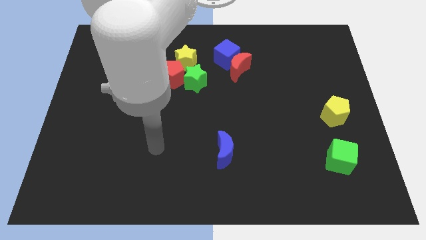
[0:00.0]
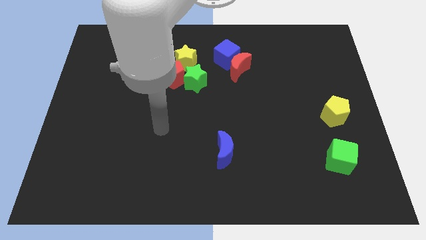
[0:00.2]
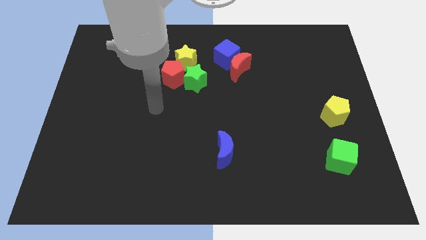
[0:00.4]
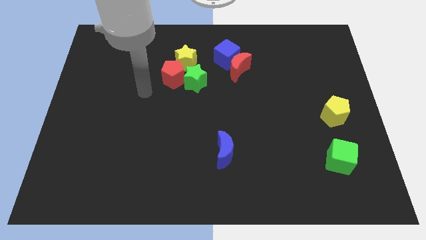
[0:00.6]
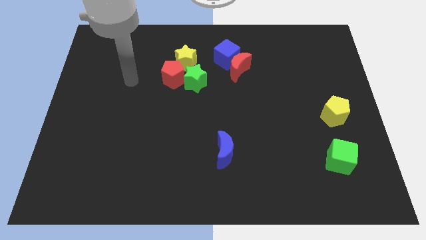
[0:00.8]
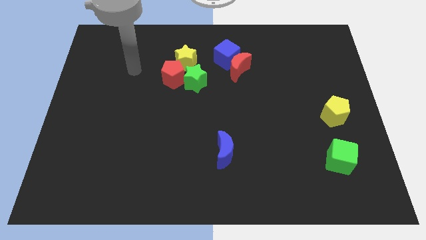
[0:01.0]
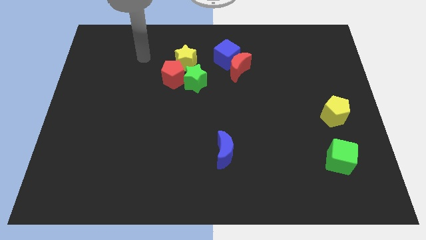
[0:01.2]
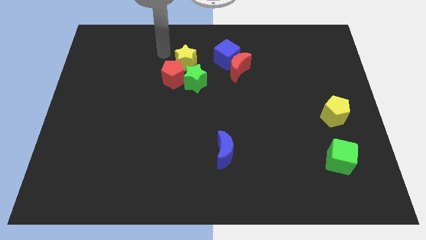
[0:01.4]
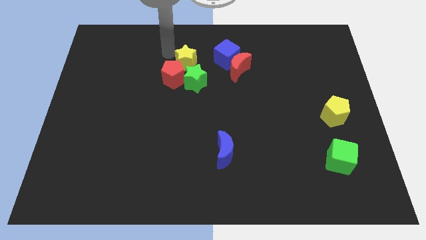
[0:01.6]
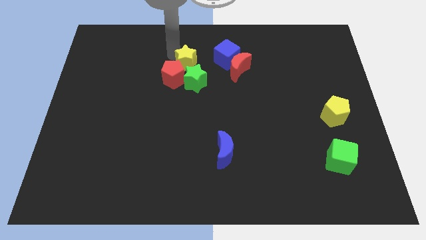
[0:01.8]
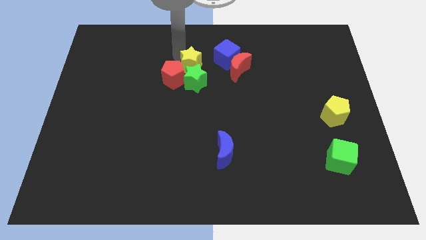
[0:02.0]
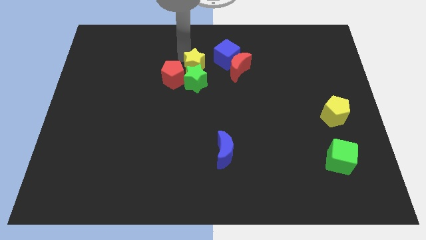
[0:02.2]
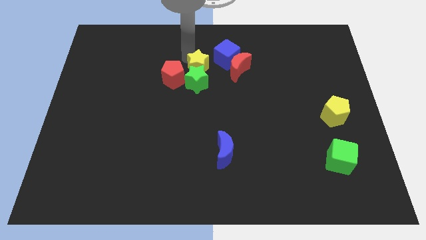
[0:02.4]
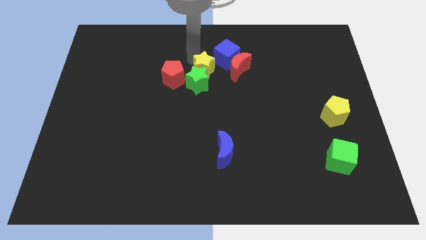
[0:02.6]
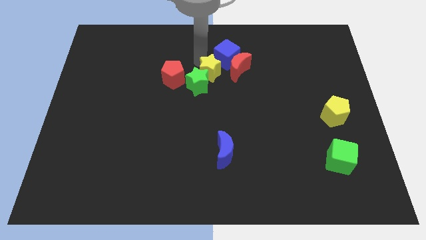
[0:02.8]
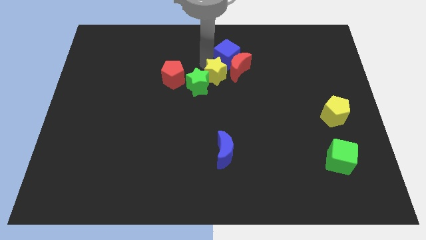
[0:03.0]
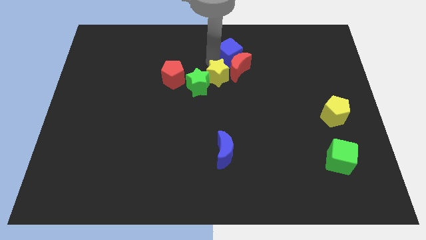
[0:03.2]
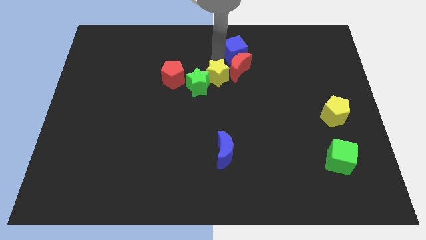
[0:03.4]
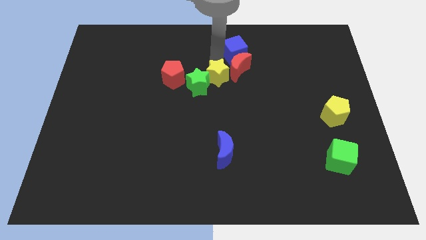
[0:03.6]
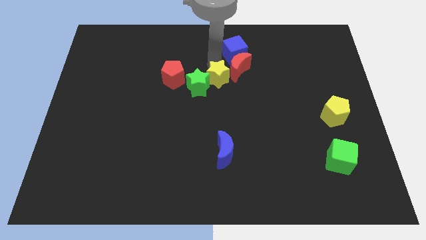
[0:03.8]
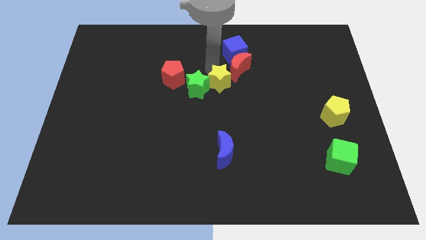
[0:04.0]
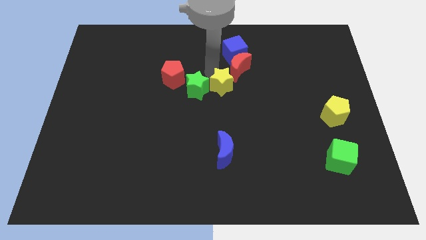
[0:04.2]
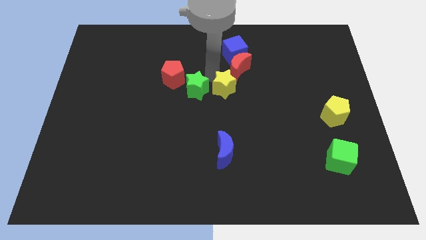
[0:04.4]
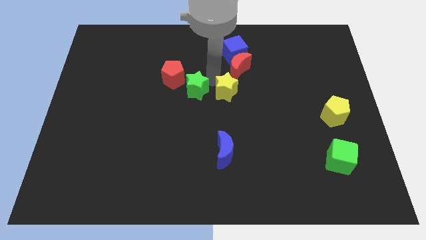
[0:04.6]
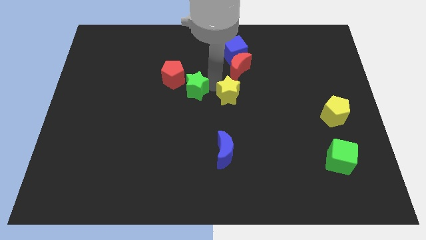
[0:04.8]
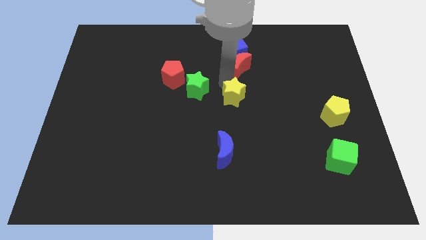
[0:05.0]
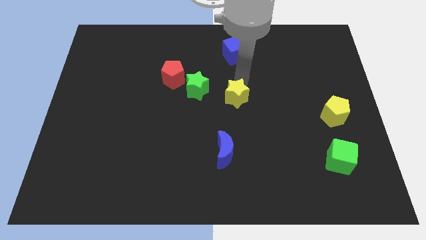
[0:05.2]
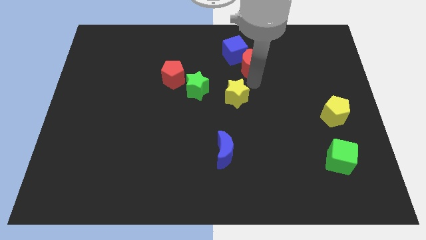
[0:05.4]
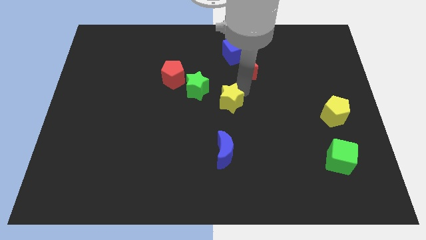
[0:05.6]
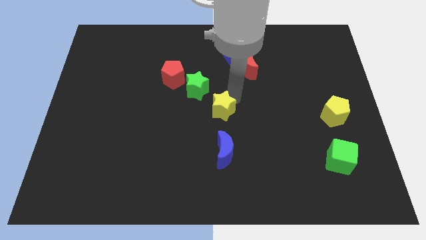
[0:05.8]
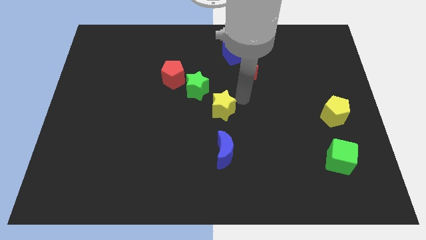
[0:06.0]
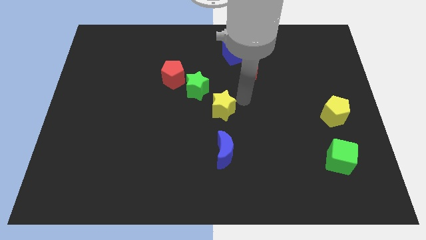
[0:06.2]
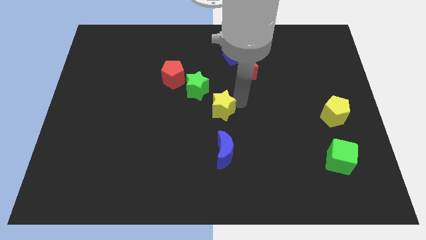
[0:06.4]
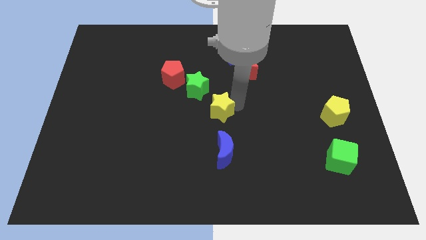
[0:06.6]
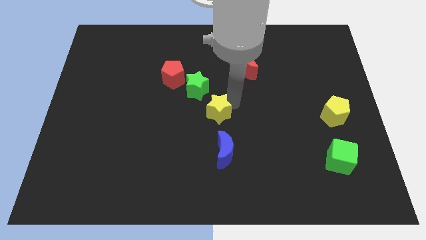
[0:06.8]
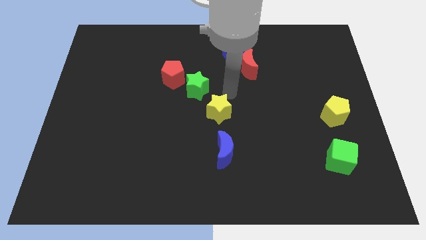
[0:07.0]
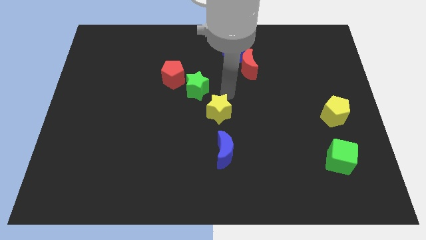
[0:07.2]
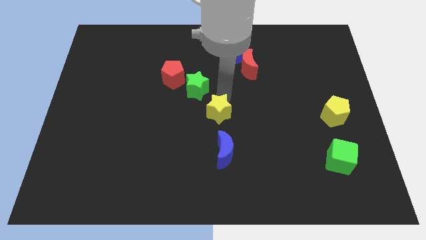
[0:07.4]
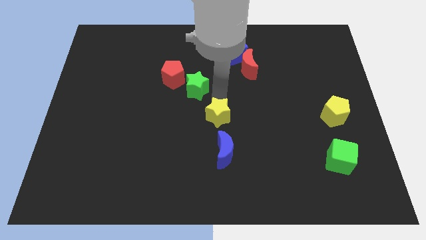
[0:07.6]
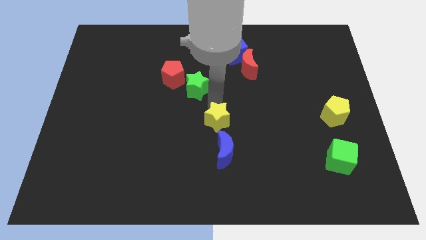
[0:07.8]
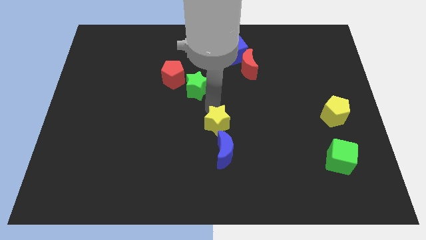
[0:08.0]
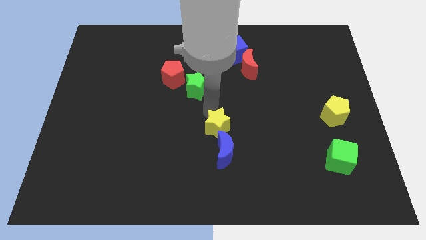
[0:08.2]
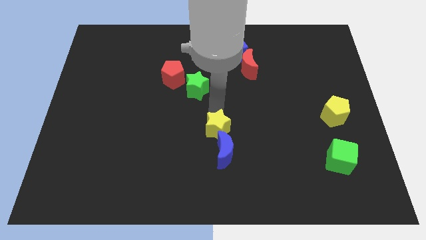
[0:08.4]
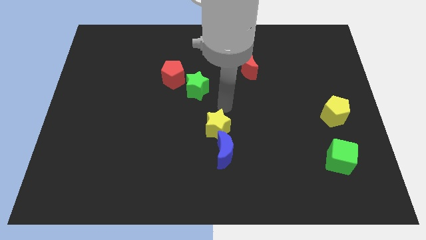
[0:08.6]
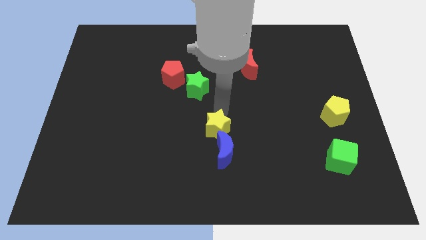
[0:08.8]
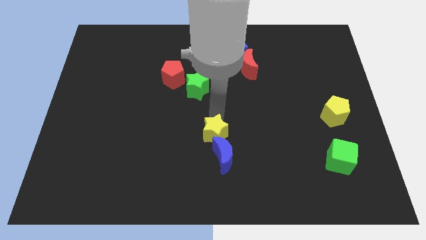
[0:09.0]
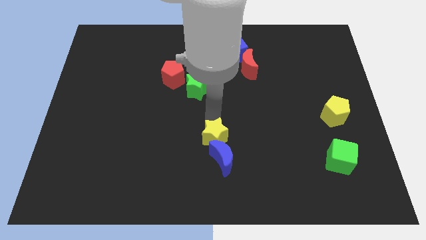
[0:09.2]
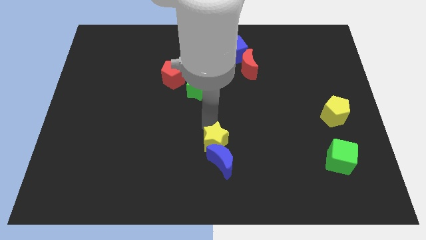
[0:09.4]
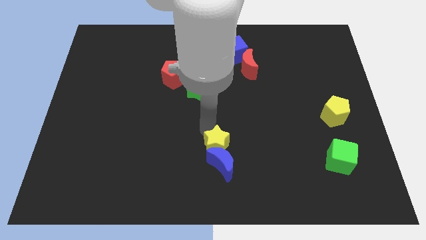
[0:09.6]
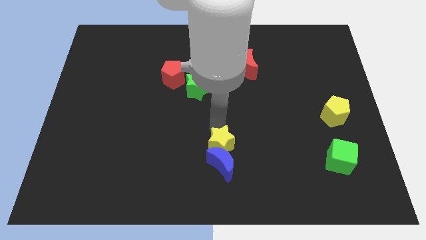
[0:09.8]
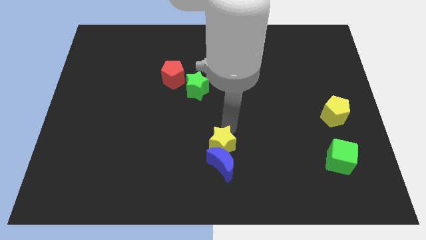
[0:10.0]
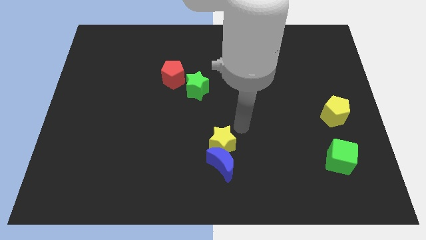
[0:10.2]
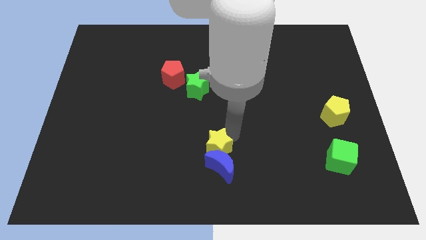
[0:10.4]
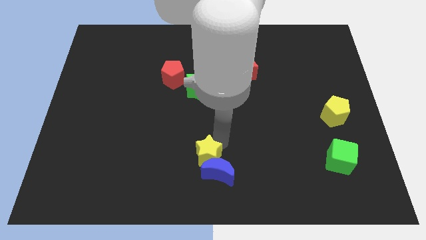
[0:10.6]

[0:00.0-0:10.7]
slide the yellow star to the bottom side
